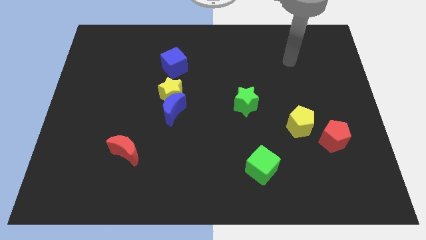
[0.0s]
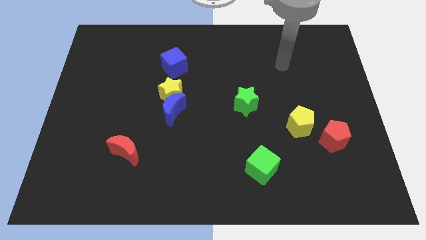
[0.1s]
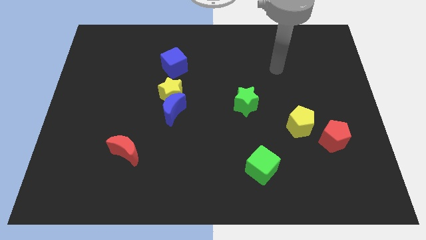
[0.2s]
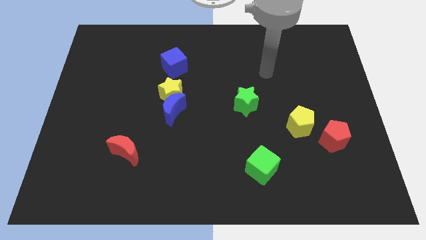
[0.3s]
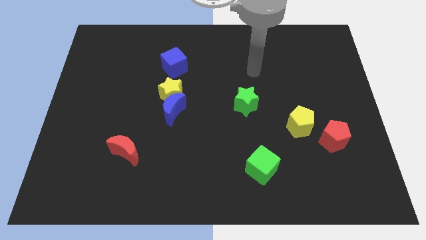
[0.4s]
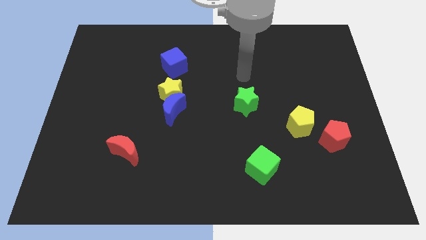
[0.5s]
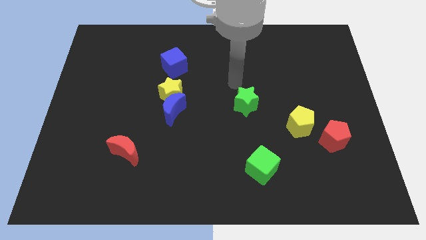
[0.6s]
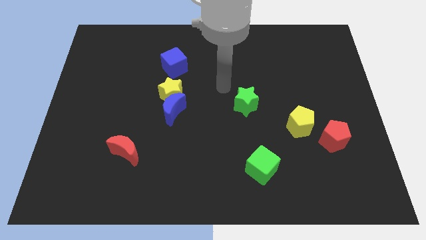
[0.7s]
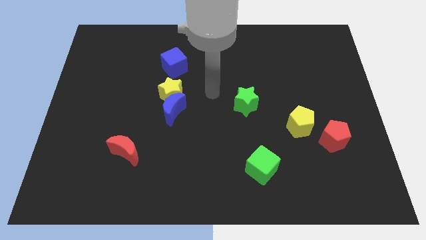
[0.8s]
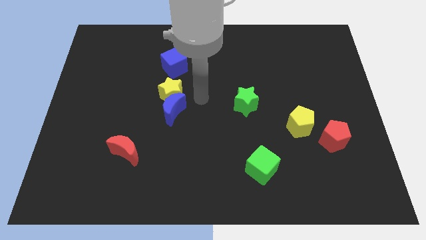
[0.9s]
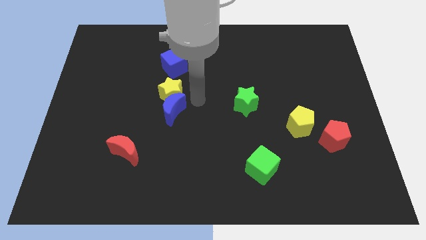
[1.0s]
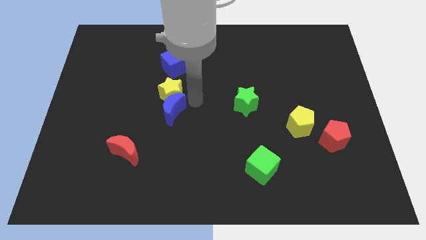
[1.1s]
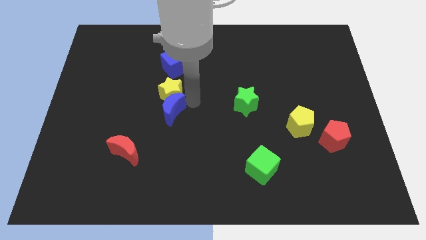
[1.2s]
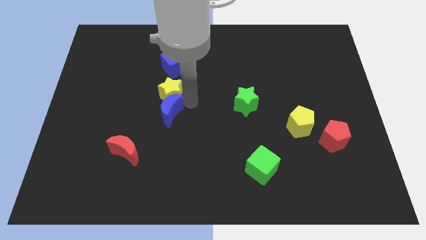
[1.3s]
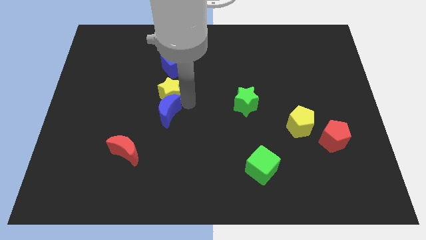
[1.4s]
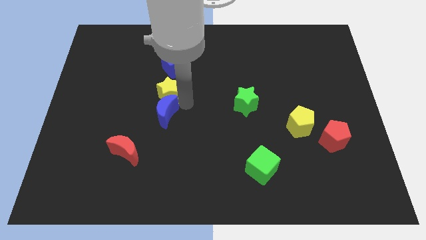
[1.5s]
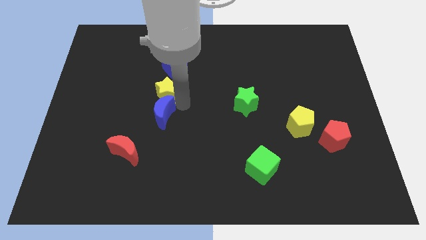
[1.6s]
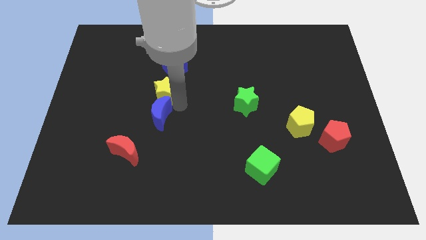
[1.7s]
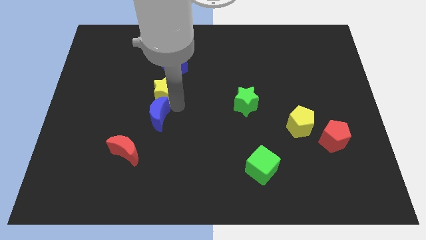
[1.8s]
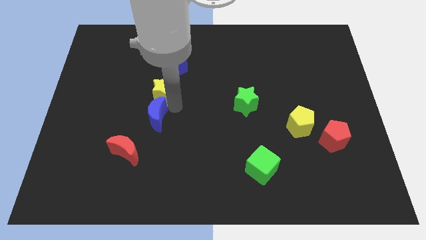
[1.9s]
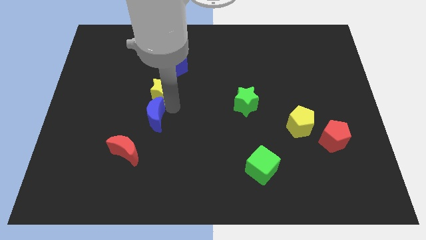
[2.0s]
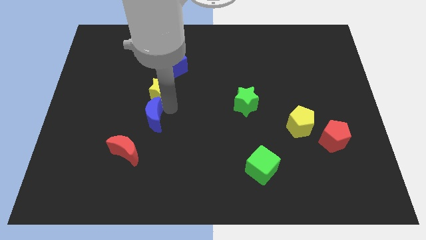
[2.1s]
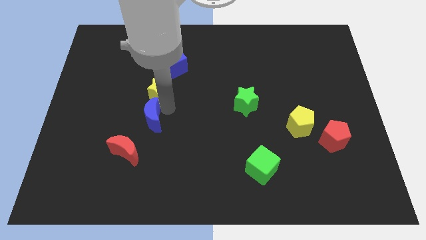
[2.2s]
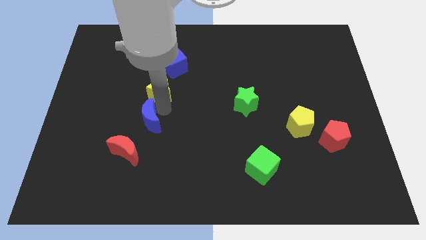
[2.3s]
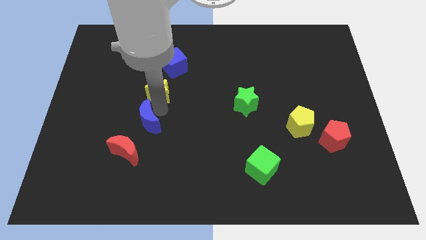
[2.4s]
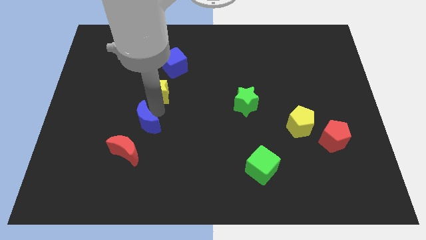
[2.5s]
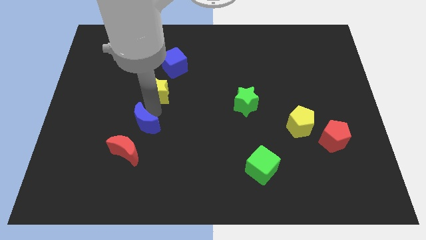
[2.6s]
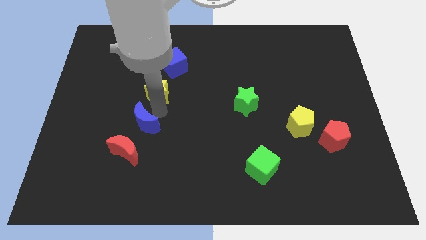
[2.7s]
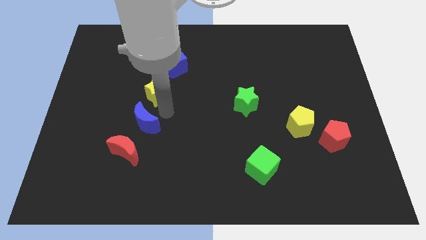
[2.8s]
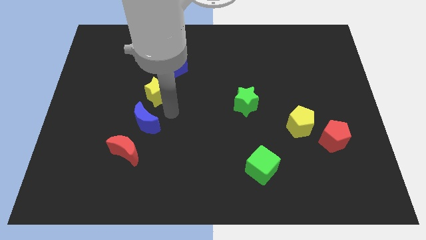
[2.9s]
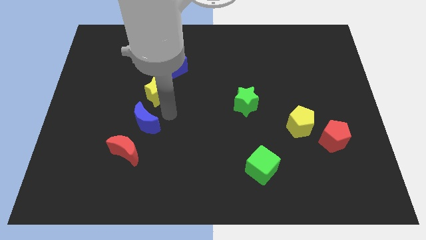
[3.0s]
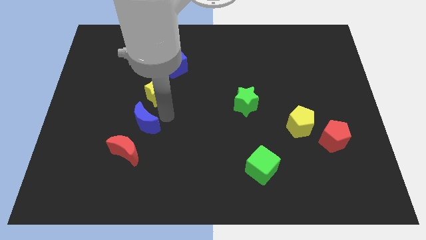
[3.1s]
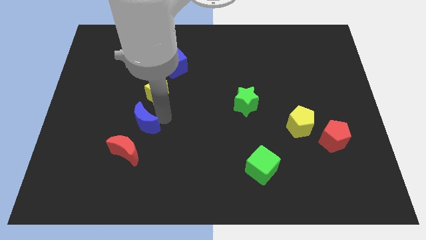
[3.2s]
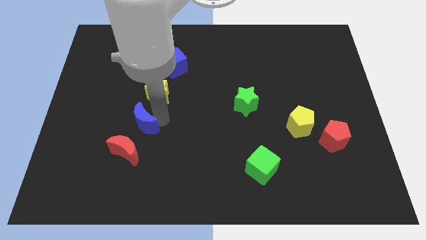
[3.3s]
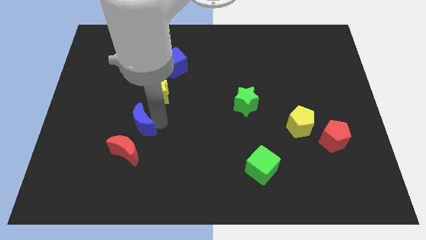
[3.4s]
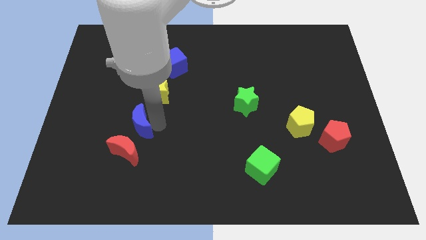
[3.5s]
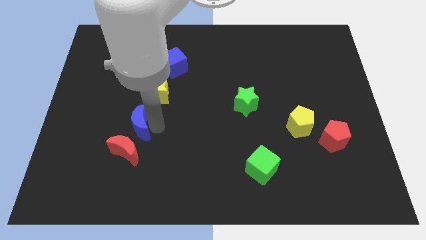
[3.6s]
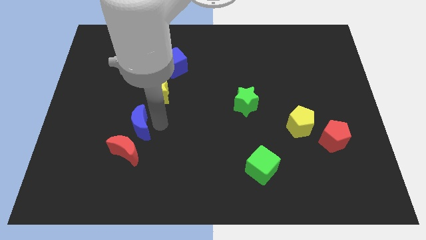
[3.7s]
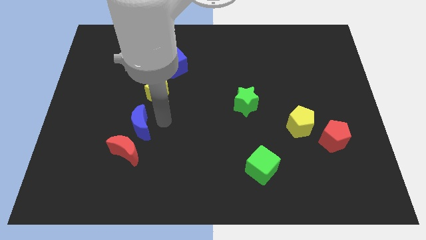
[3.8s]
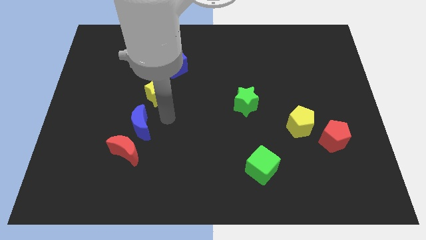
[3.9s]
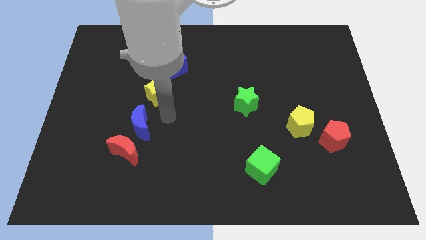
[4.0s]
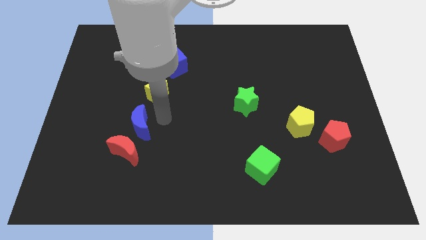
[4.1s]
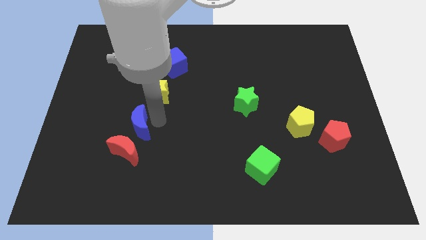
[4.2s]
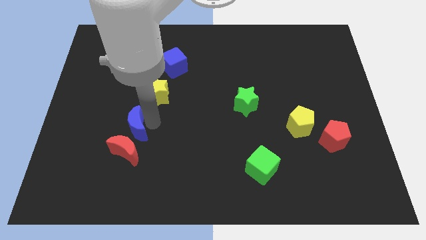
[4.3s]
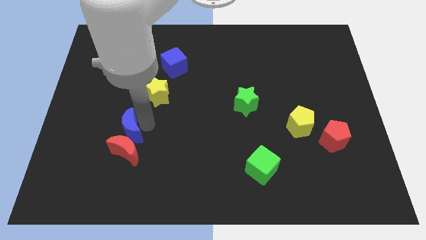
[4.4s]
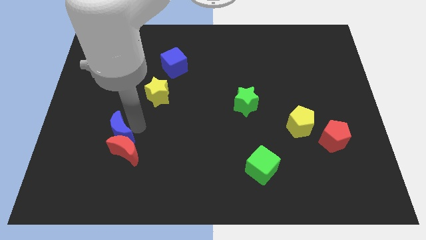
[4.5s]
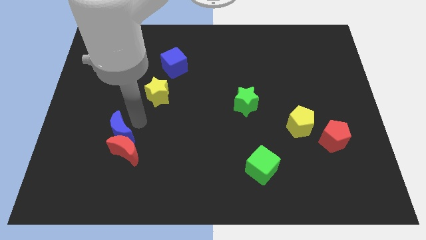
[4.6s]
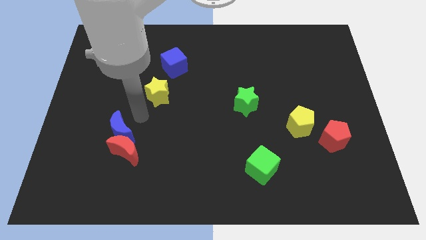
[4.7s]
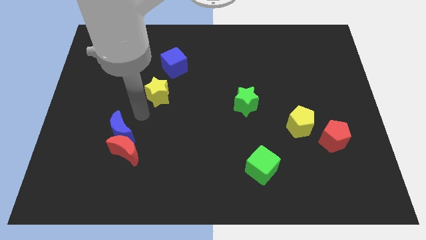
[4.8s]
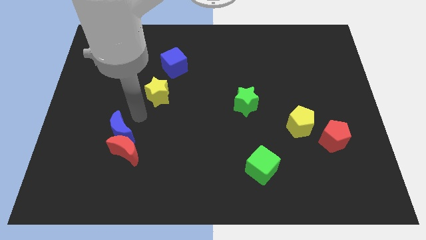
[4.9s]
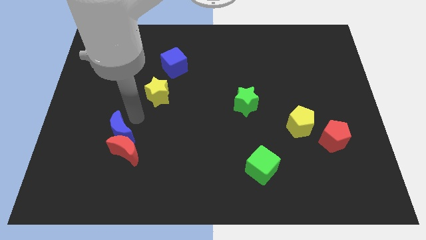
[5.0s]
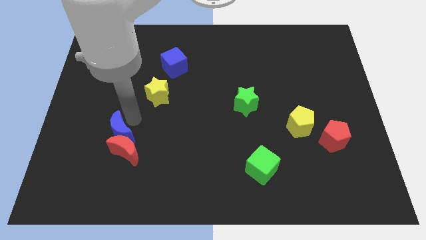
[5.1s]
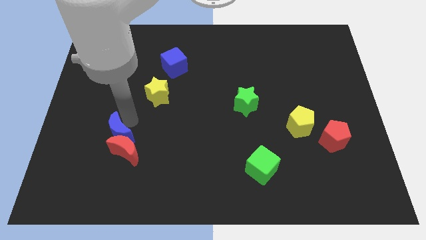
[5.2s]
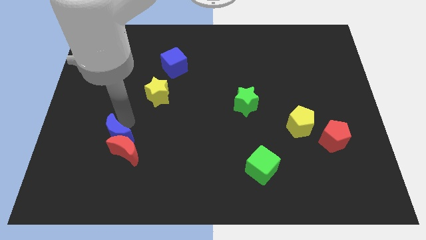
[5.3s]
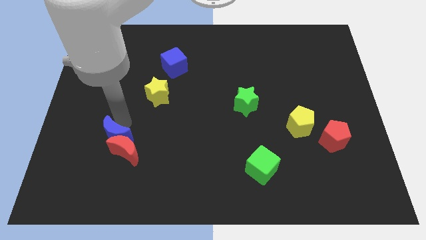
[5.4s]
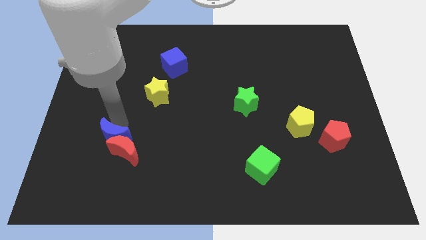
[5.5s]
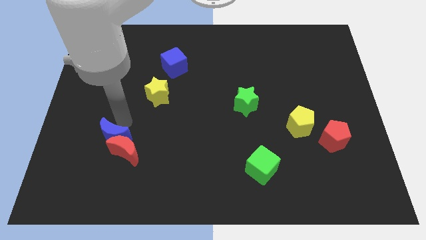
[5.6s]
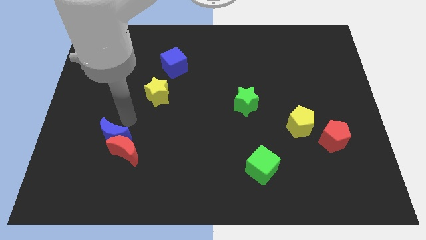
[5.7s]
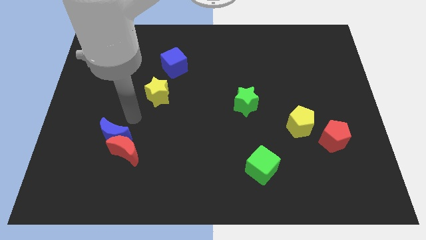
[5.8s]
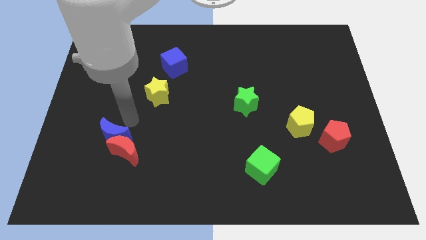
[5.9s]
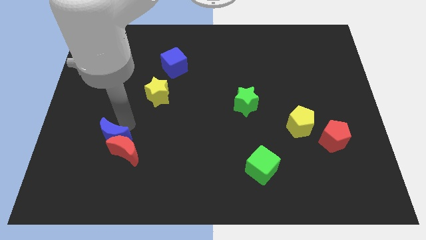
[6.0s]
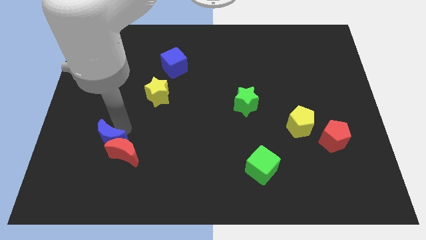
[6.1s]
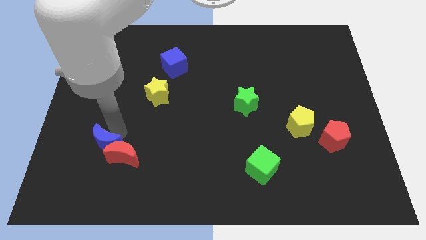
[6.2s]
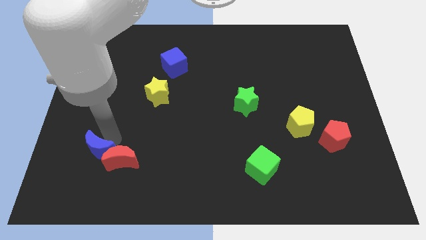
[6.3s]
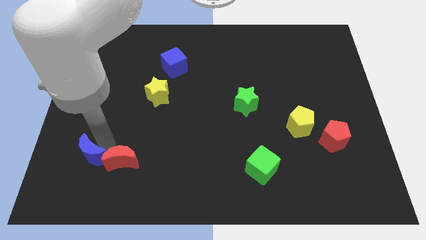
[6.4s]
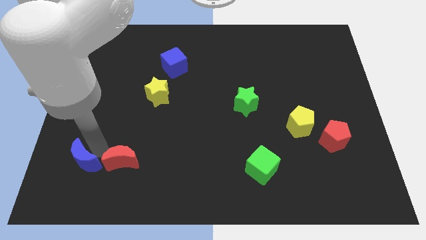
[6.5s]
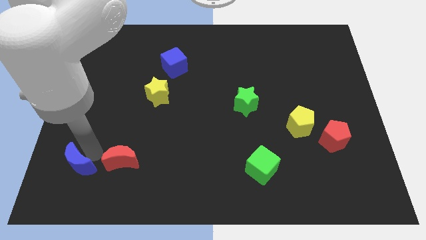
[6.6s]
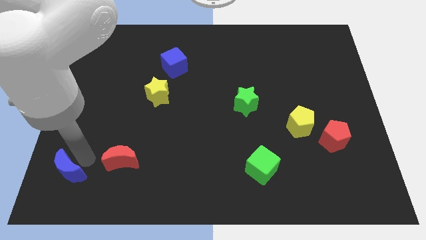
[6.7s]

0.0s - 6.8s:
put the blue moon to the bottom left
